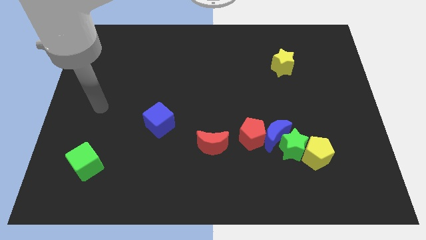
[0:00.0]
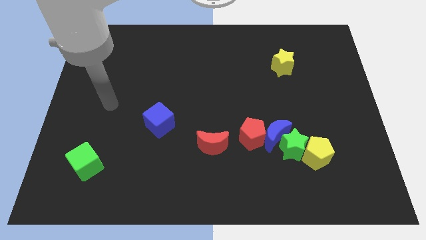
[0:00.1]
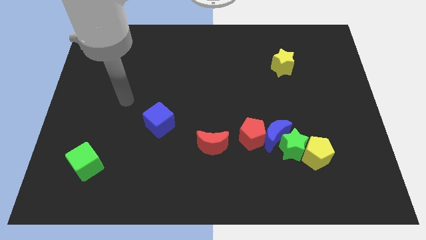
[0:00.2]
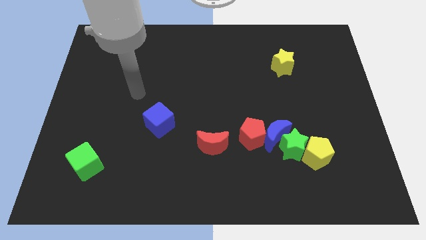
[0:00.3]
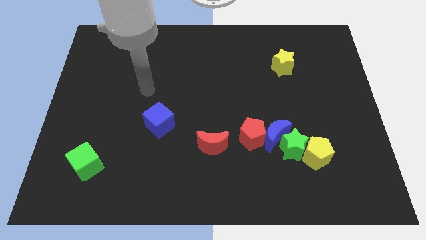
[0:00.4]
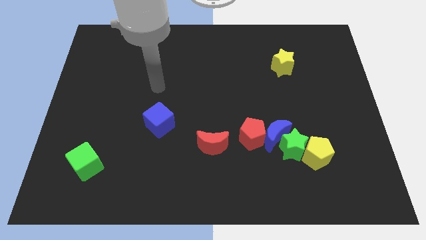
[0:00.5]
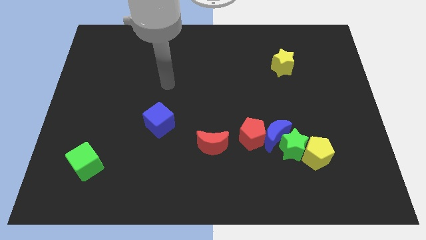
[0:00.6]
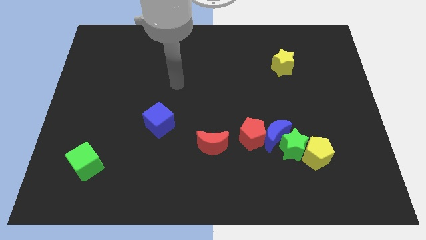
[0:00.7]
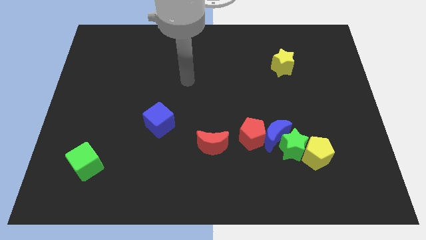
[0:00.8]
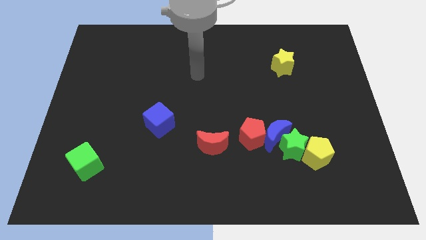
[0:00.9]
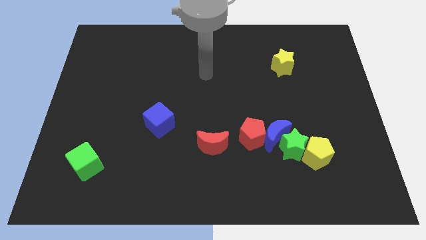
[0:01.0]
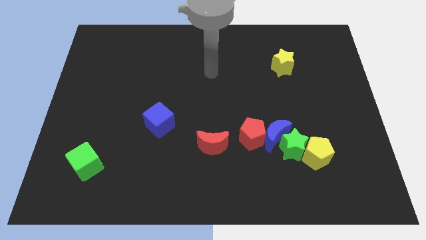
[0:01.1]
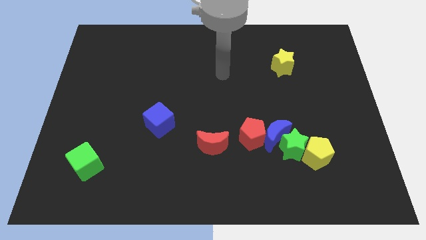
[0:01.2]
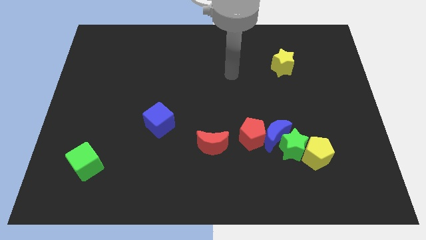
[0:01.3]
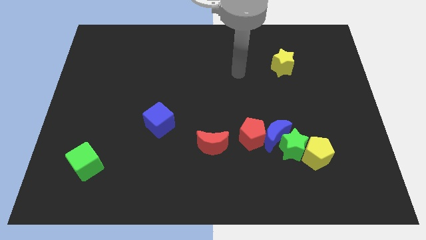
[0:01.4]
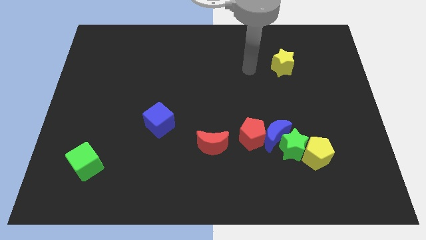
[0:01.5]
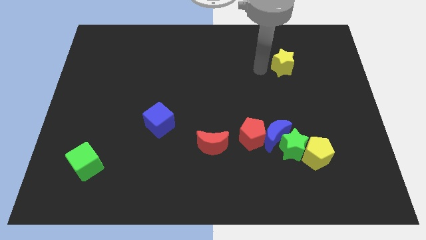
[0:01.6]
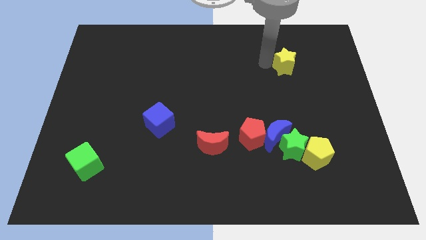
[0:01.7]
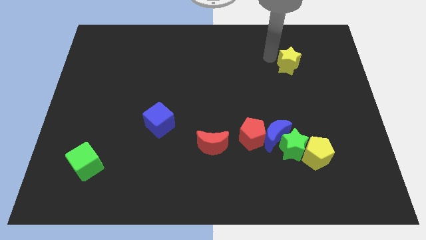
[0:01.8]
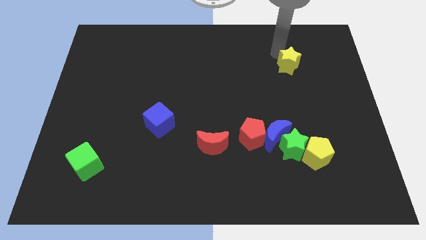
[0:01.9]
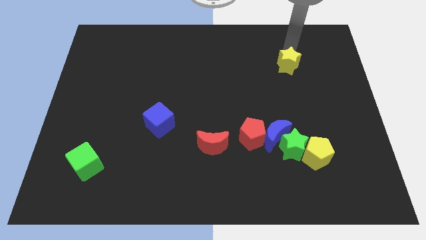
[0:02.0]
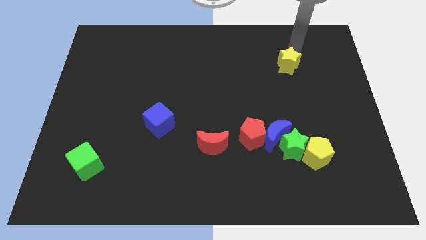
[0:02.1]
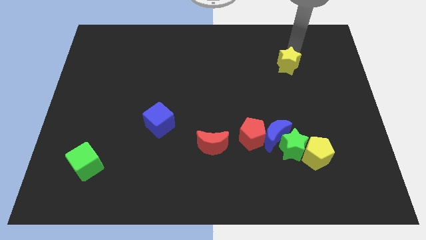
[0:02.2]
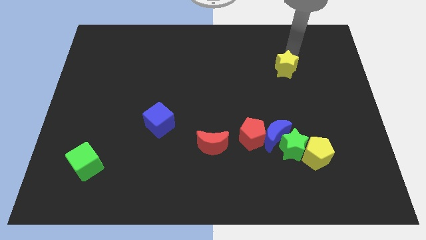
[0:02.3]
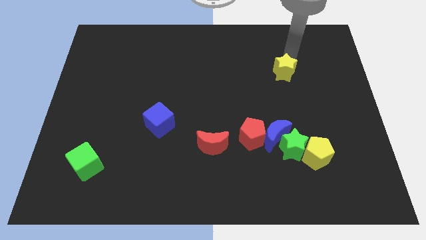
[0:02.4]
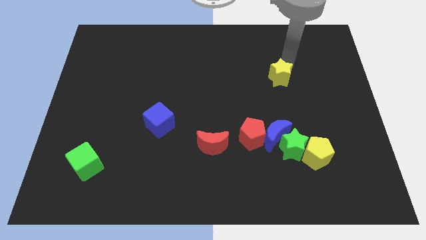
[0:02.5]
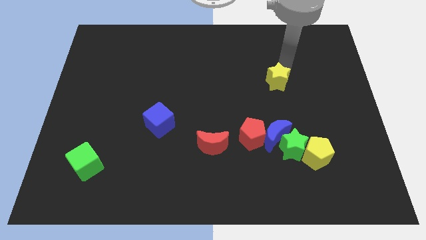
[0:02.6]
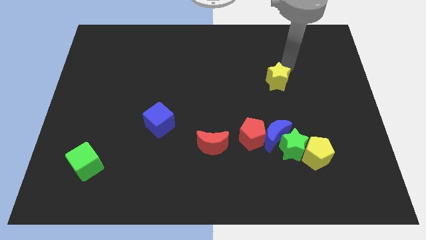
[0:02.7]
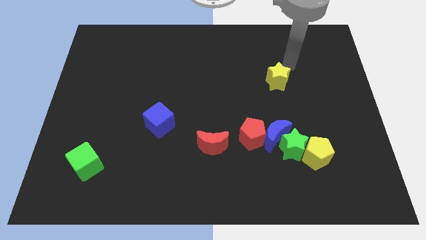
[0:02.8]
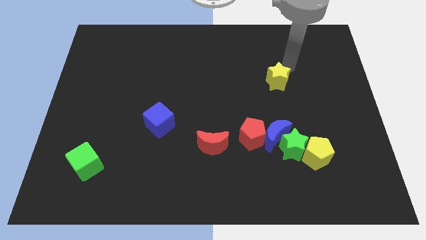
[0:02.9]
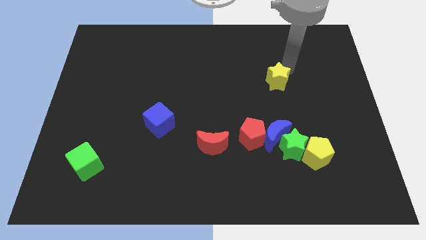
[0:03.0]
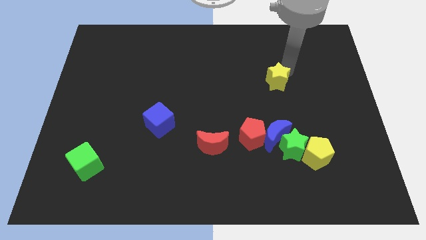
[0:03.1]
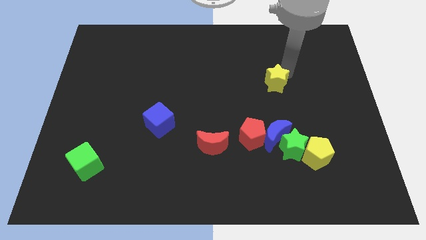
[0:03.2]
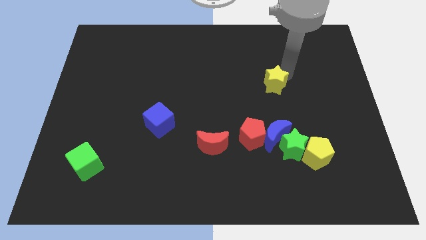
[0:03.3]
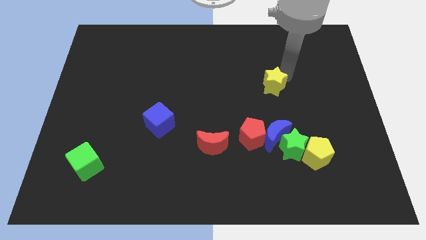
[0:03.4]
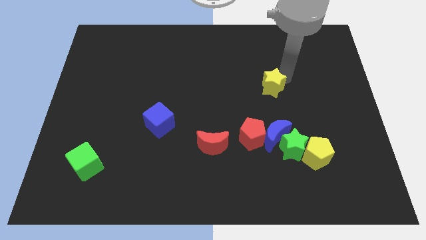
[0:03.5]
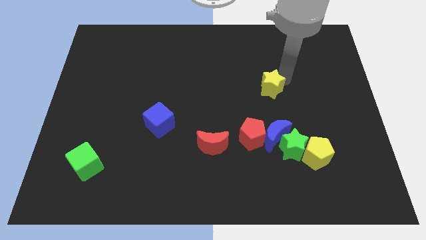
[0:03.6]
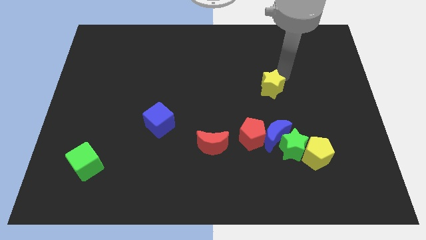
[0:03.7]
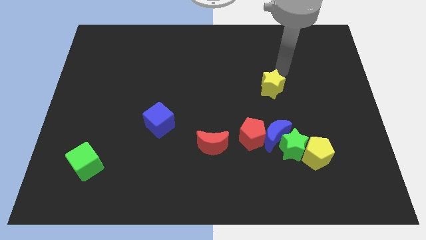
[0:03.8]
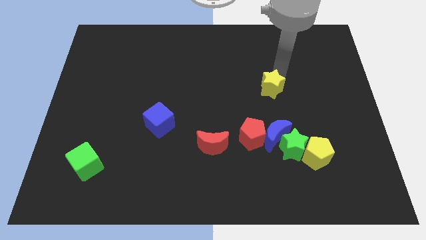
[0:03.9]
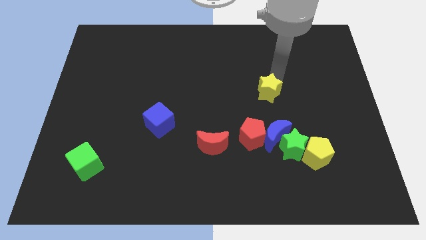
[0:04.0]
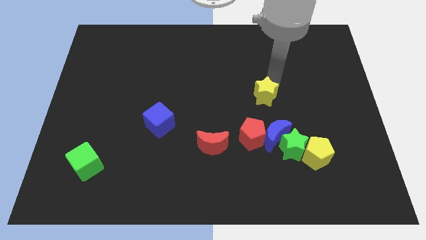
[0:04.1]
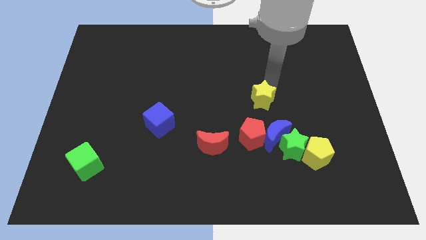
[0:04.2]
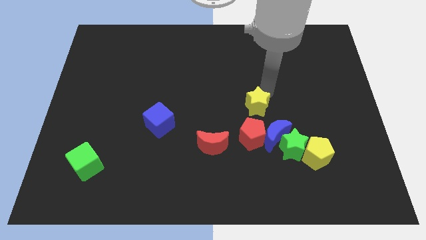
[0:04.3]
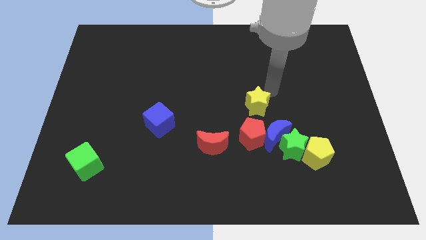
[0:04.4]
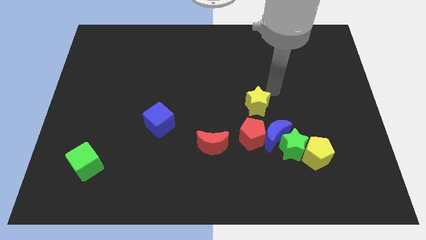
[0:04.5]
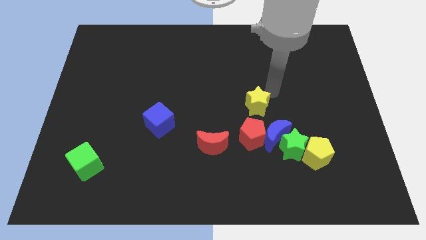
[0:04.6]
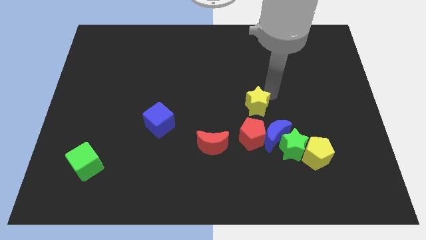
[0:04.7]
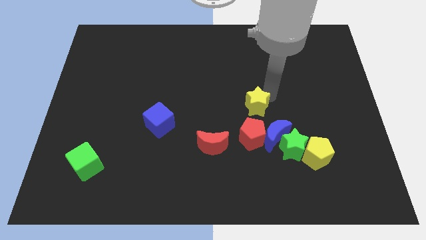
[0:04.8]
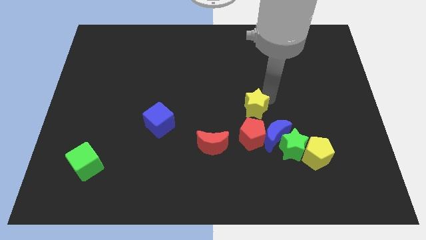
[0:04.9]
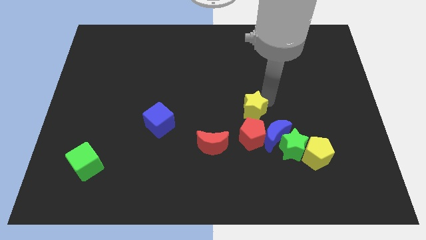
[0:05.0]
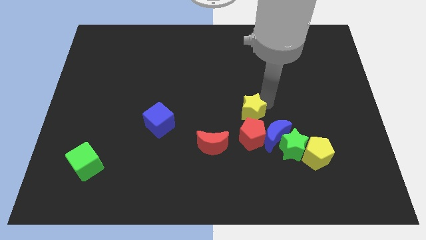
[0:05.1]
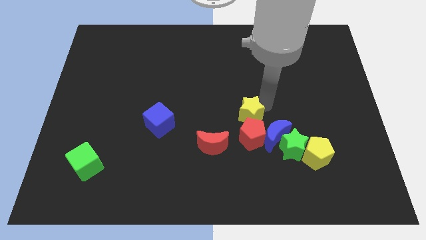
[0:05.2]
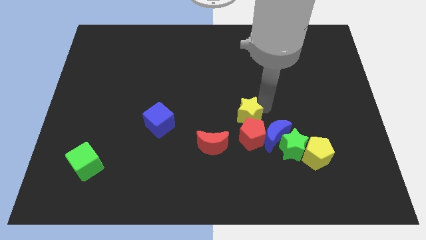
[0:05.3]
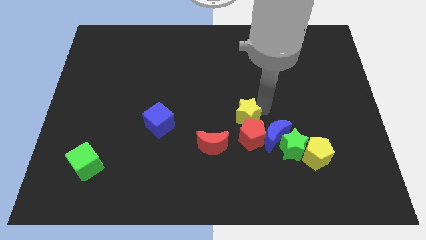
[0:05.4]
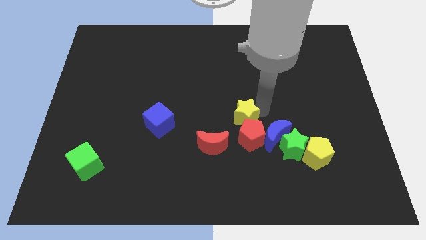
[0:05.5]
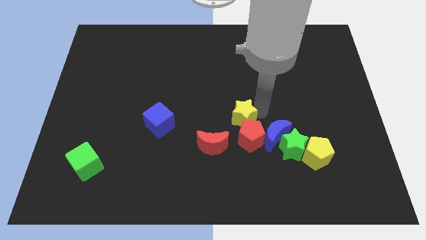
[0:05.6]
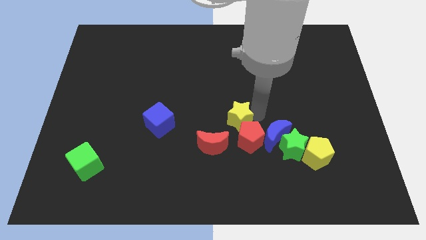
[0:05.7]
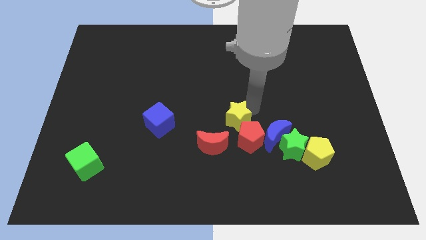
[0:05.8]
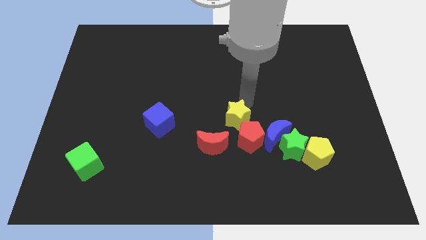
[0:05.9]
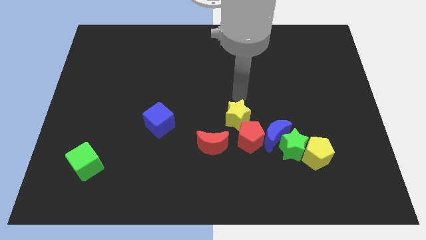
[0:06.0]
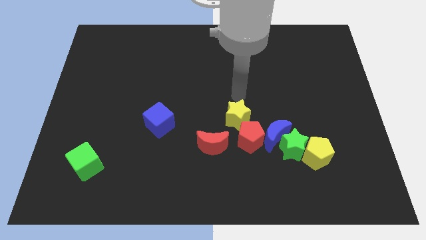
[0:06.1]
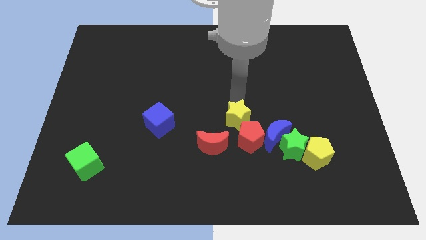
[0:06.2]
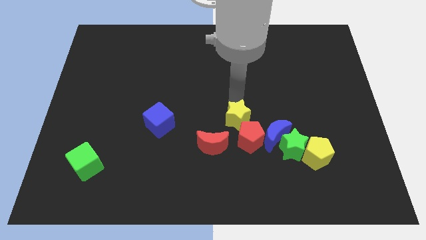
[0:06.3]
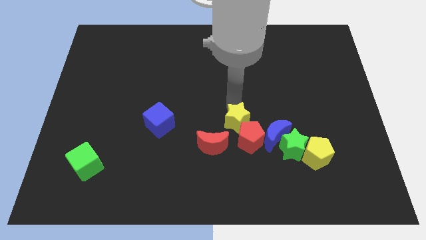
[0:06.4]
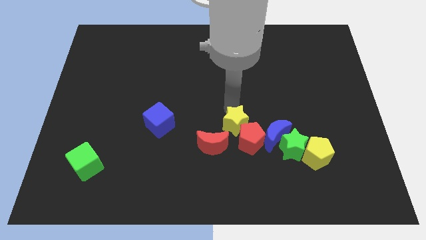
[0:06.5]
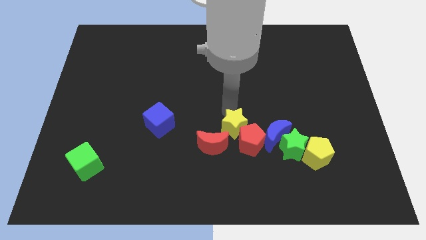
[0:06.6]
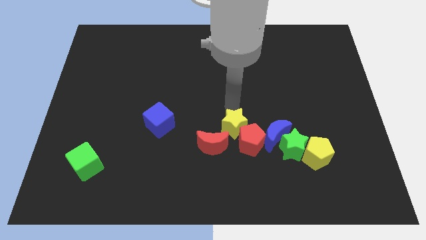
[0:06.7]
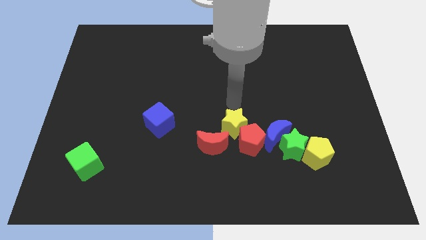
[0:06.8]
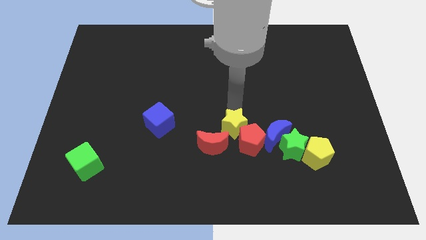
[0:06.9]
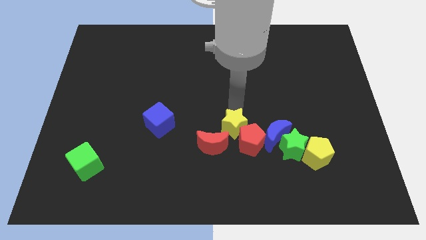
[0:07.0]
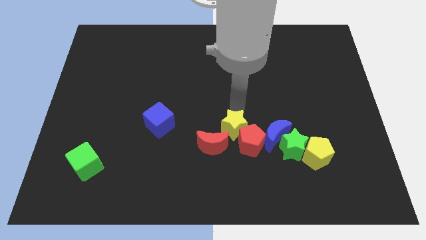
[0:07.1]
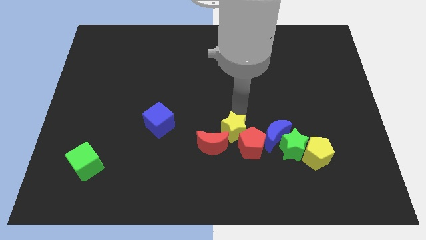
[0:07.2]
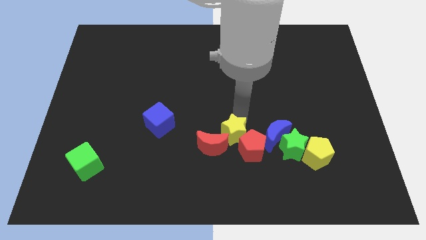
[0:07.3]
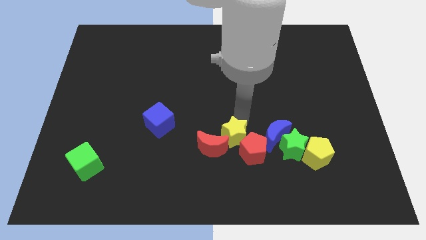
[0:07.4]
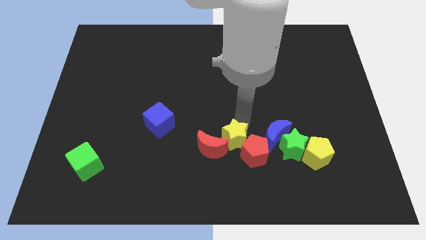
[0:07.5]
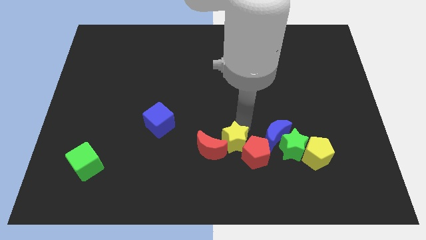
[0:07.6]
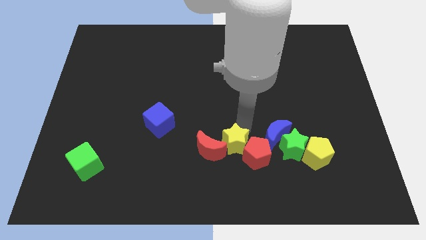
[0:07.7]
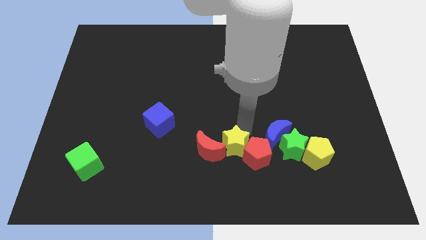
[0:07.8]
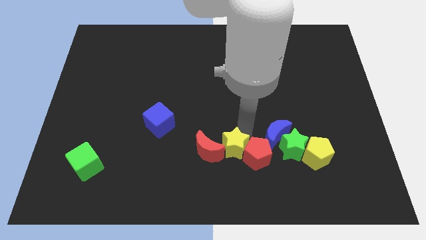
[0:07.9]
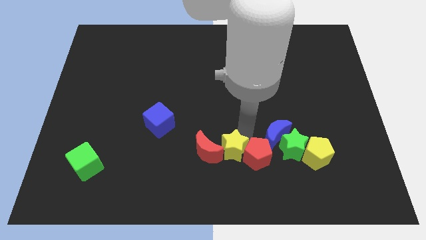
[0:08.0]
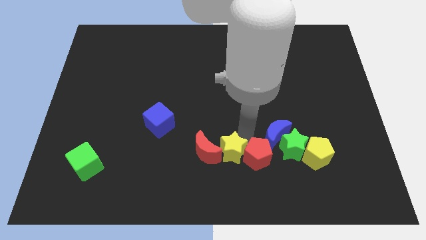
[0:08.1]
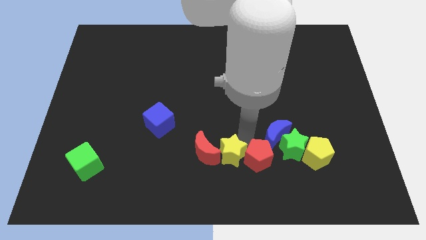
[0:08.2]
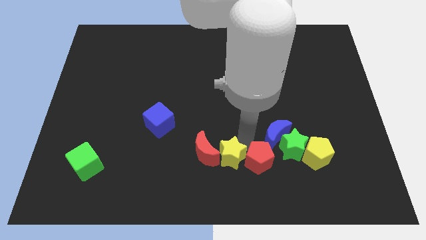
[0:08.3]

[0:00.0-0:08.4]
push the yellow star to the bottom side
